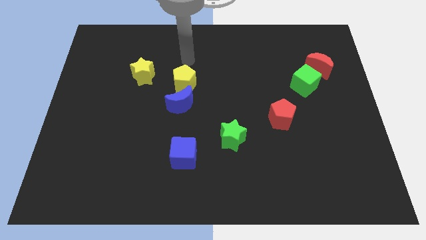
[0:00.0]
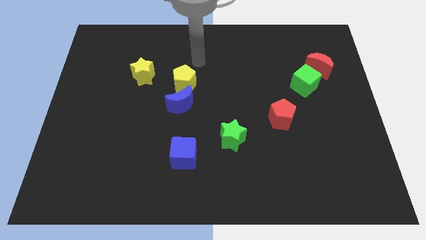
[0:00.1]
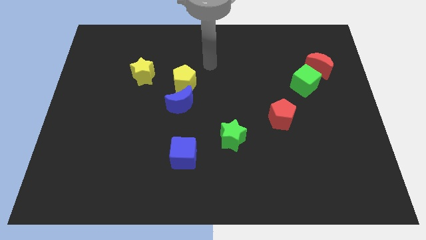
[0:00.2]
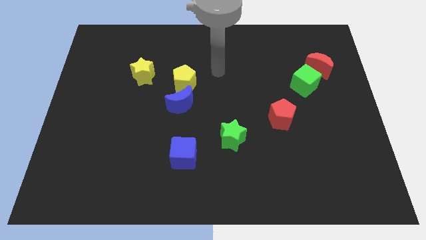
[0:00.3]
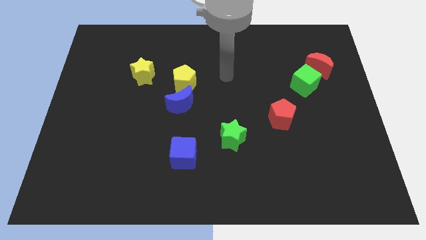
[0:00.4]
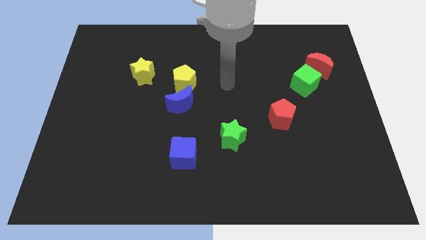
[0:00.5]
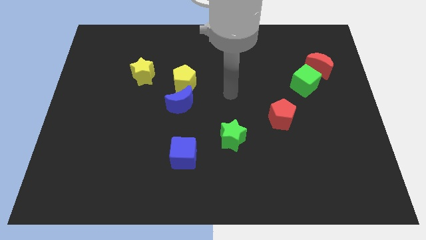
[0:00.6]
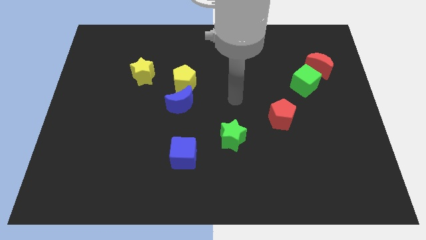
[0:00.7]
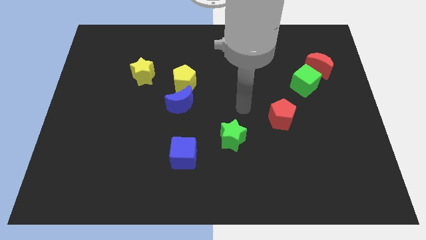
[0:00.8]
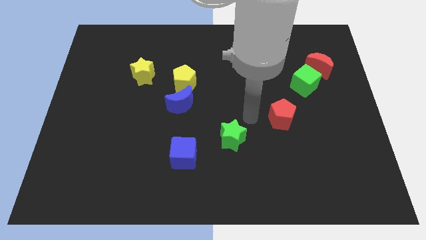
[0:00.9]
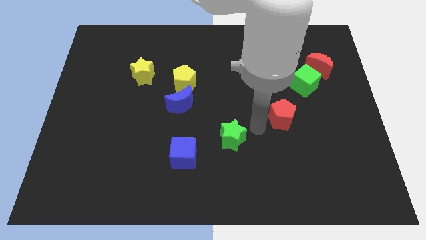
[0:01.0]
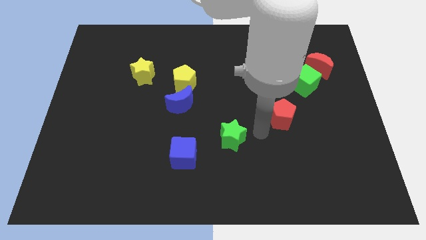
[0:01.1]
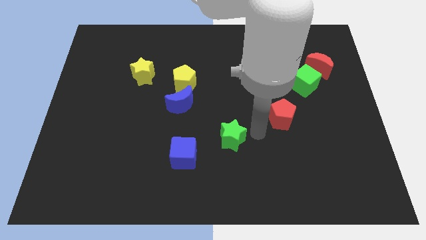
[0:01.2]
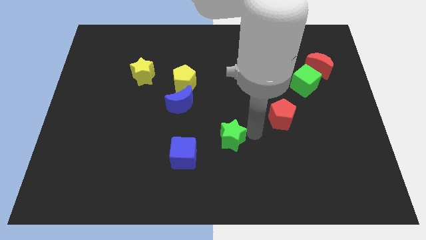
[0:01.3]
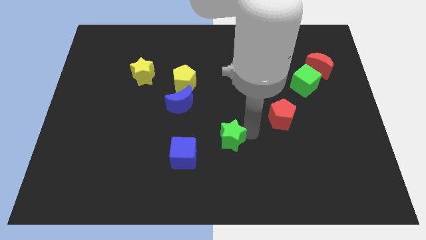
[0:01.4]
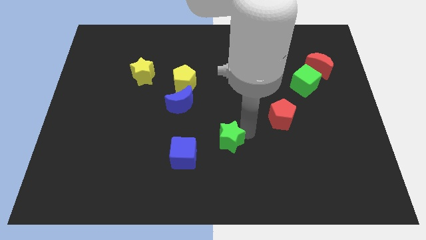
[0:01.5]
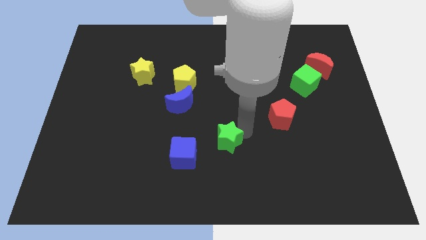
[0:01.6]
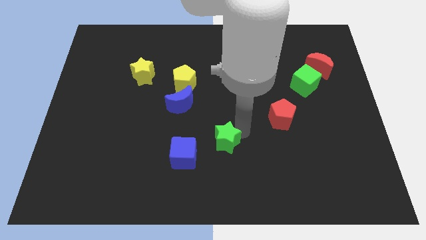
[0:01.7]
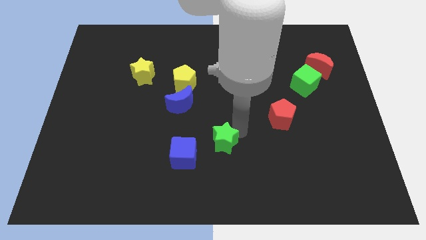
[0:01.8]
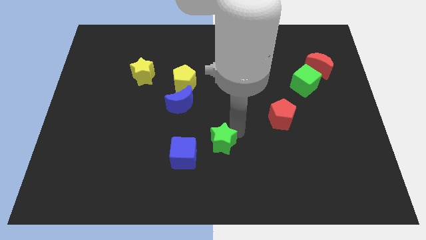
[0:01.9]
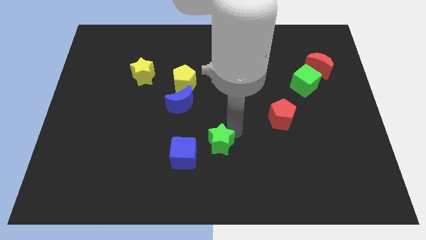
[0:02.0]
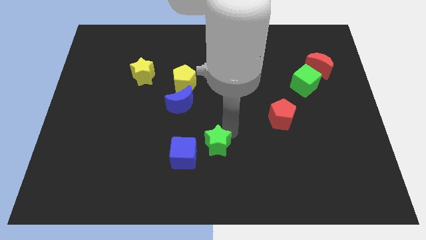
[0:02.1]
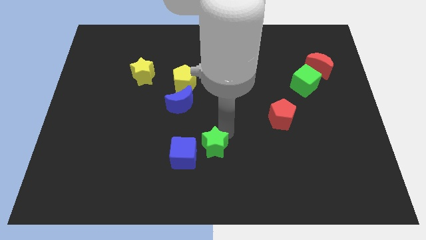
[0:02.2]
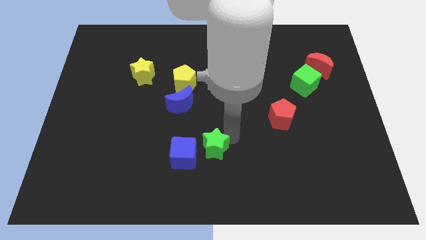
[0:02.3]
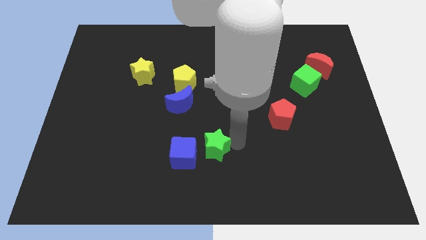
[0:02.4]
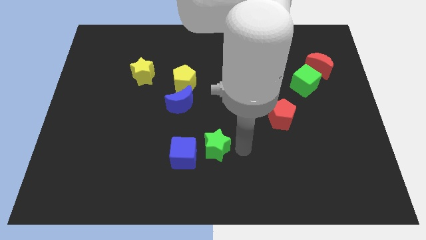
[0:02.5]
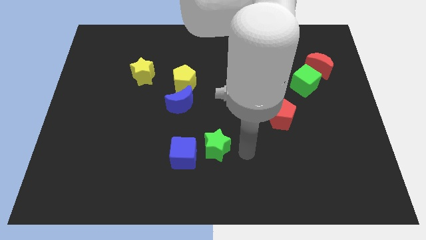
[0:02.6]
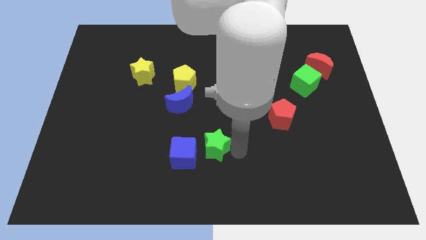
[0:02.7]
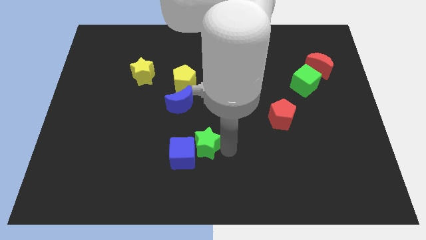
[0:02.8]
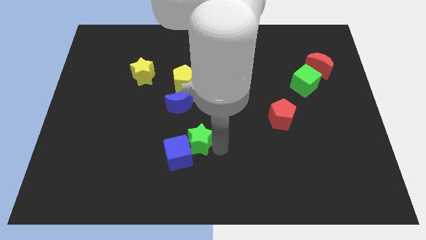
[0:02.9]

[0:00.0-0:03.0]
move the green star to the left slightly

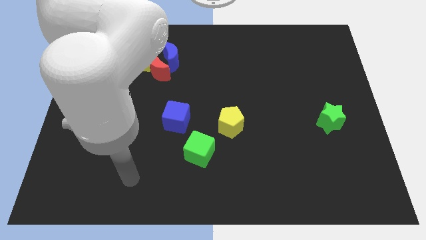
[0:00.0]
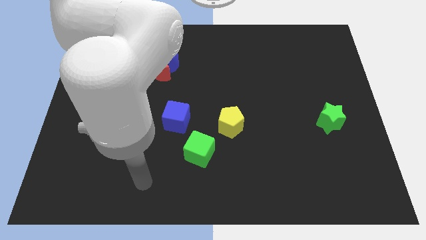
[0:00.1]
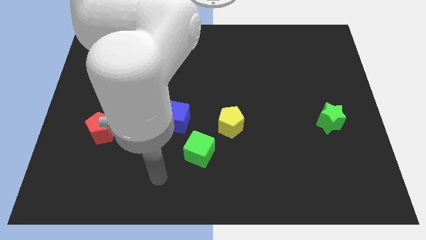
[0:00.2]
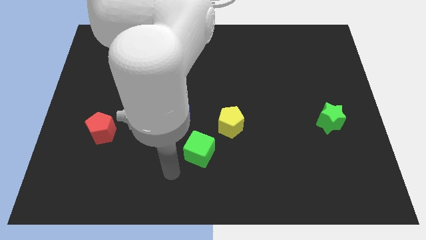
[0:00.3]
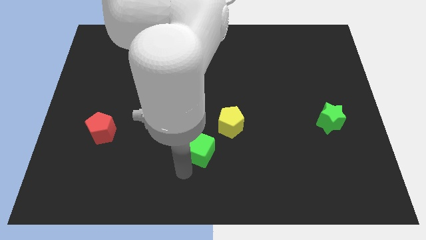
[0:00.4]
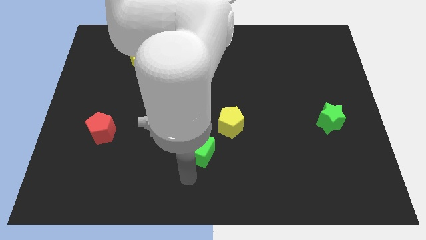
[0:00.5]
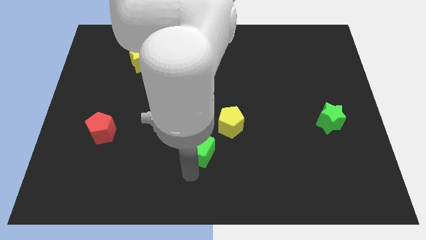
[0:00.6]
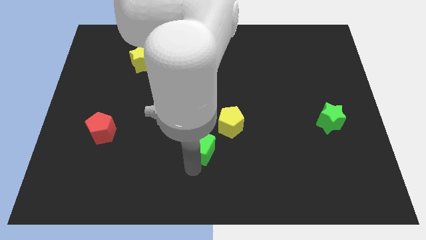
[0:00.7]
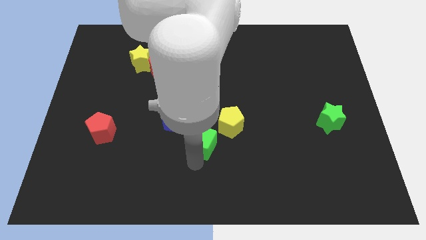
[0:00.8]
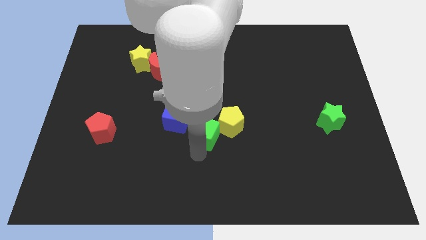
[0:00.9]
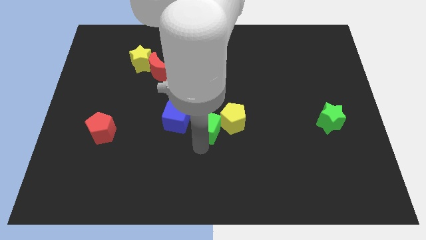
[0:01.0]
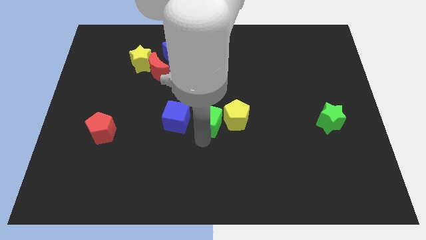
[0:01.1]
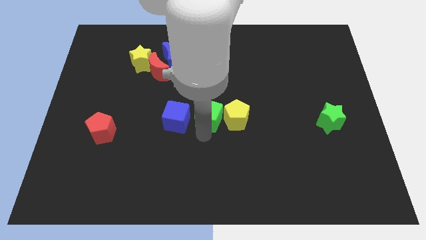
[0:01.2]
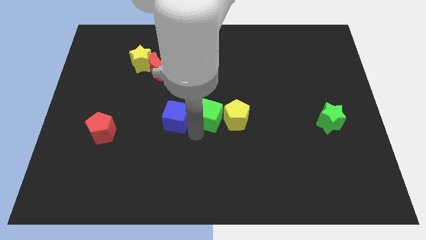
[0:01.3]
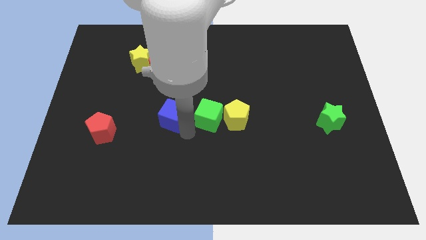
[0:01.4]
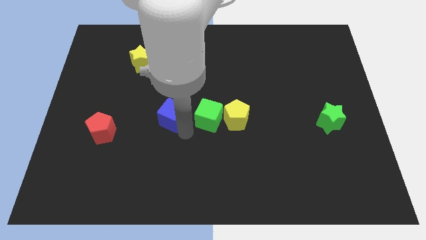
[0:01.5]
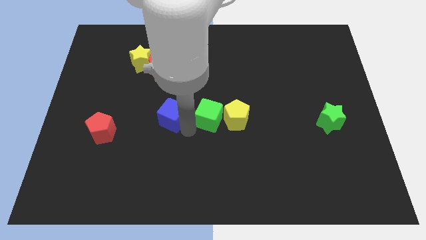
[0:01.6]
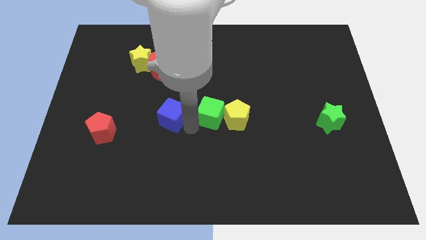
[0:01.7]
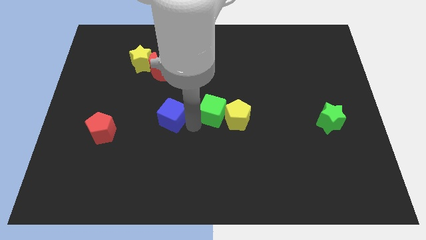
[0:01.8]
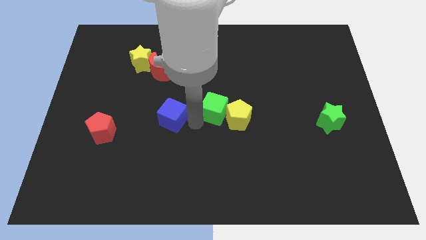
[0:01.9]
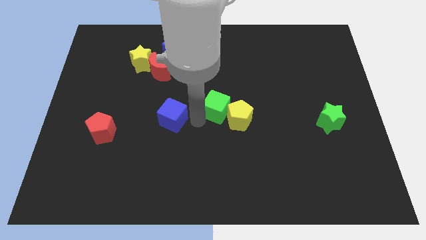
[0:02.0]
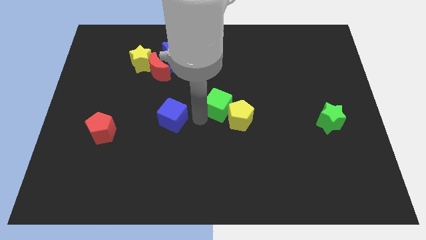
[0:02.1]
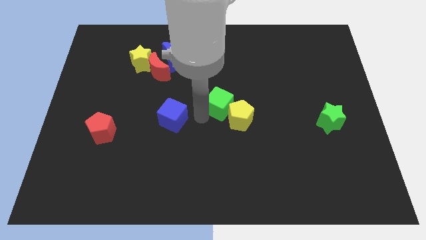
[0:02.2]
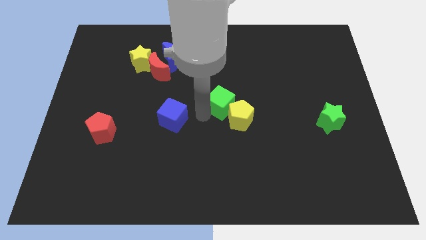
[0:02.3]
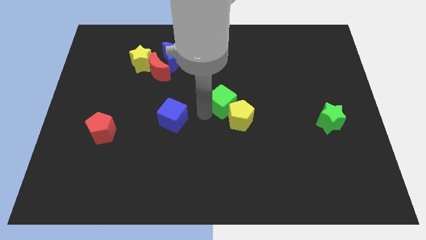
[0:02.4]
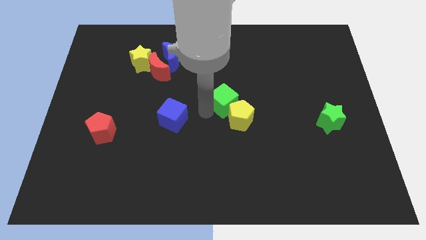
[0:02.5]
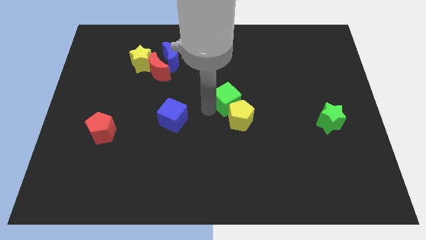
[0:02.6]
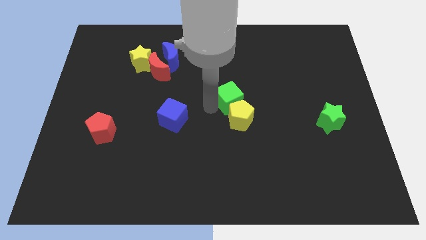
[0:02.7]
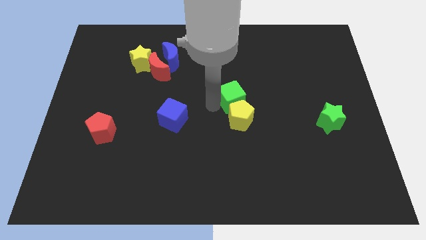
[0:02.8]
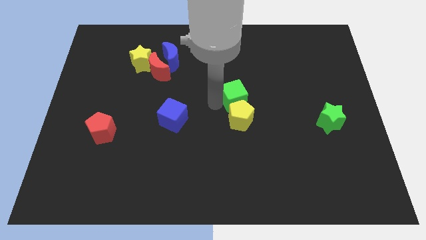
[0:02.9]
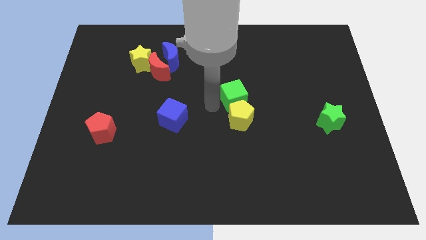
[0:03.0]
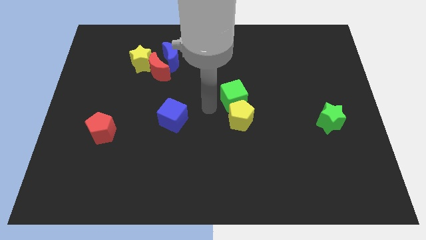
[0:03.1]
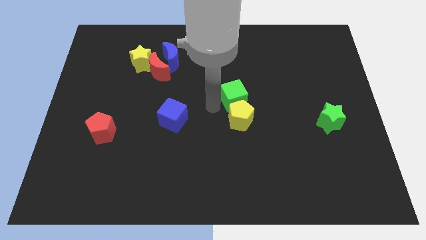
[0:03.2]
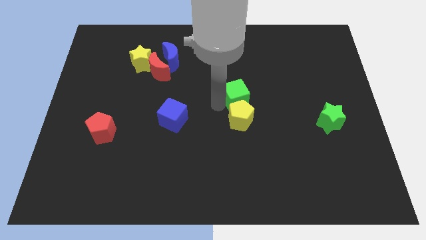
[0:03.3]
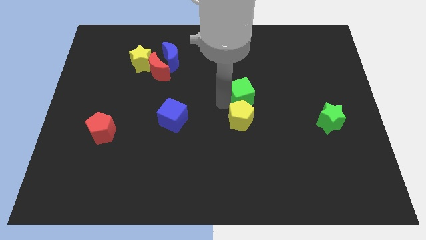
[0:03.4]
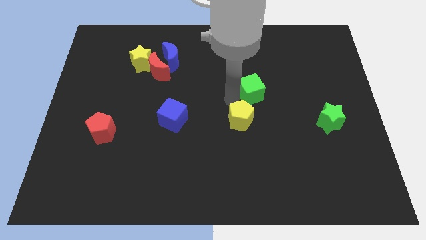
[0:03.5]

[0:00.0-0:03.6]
move the green cube upwards and then to the right

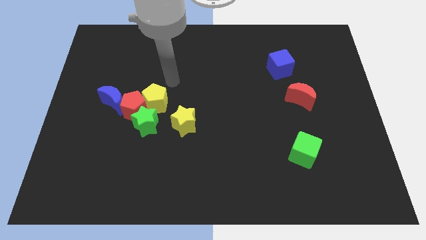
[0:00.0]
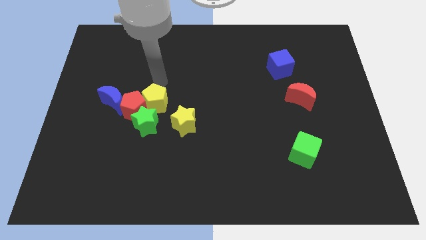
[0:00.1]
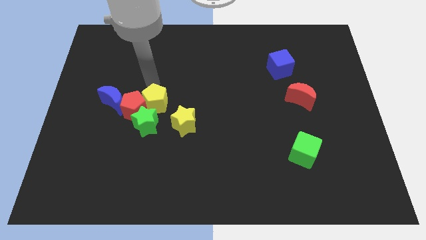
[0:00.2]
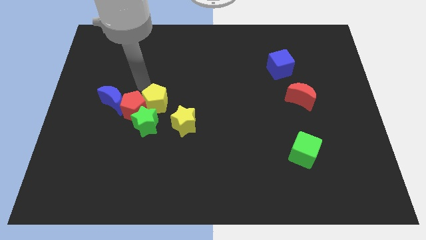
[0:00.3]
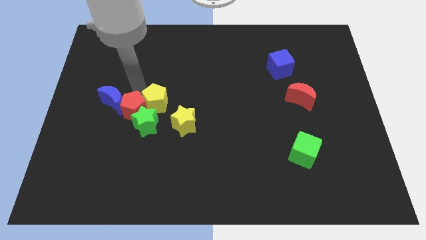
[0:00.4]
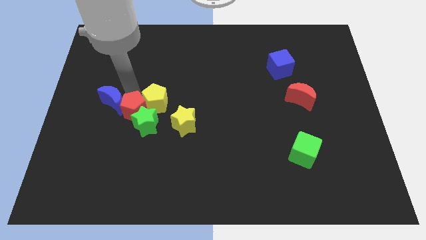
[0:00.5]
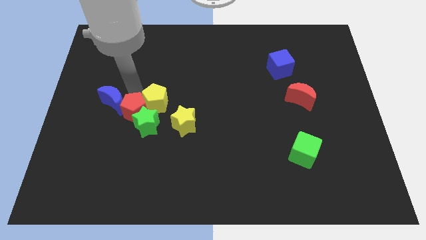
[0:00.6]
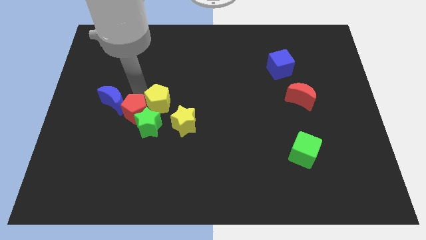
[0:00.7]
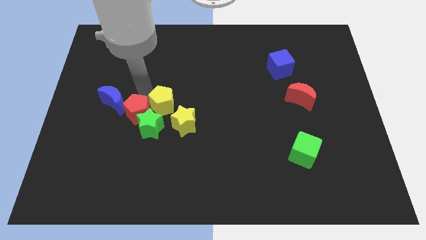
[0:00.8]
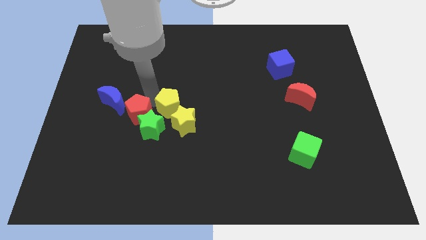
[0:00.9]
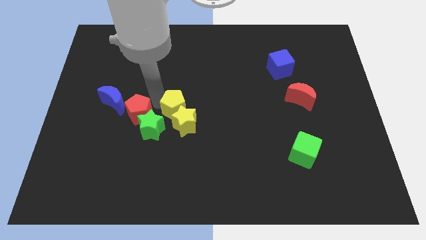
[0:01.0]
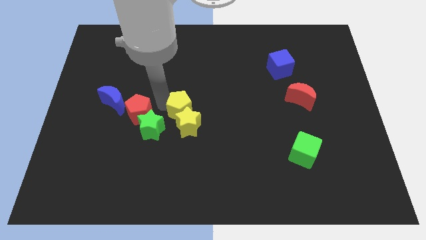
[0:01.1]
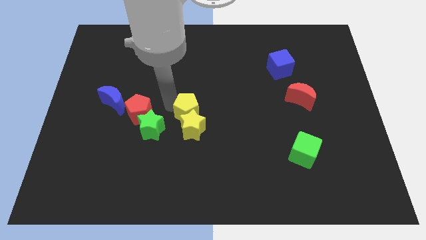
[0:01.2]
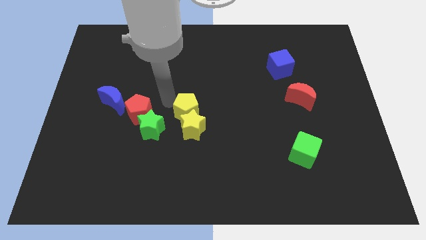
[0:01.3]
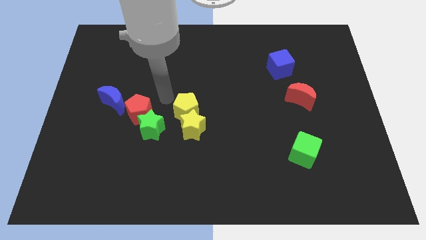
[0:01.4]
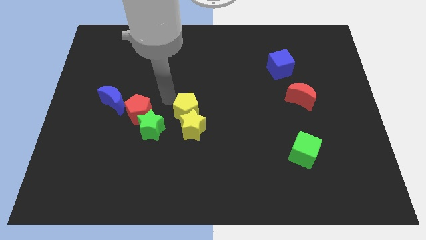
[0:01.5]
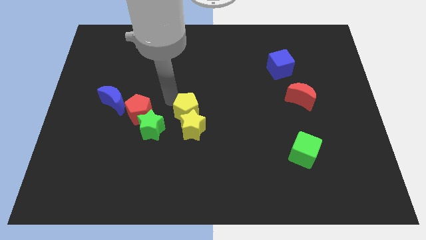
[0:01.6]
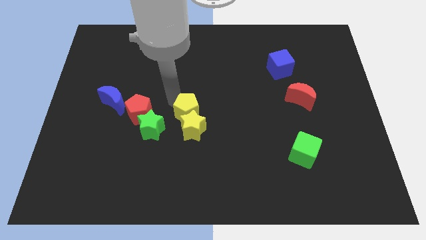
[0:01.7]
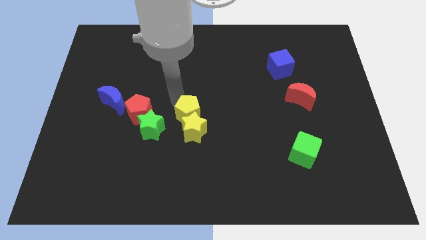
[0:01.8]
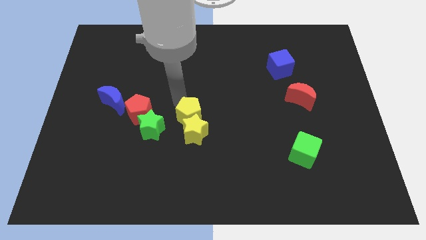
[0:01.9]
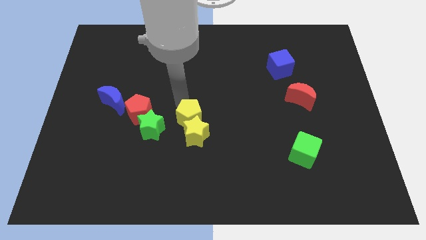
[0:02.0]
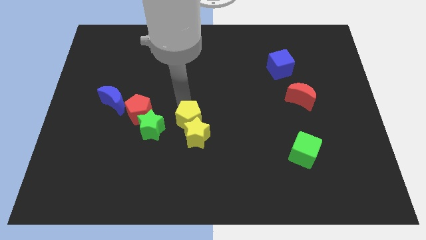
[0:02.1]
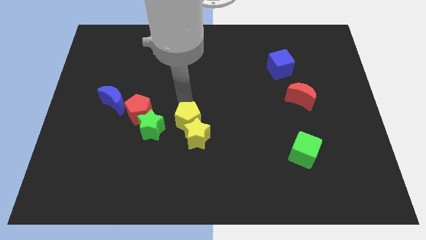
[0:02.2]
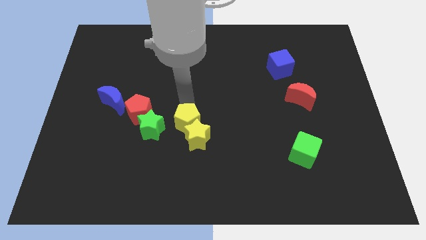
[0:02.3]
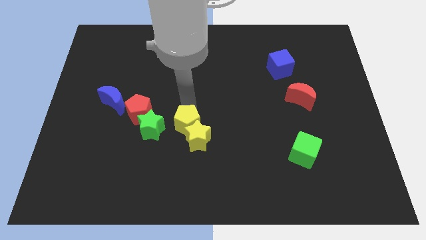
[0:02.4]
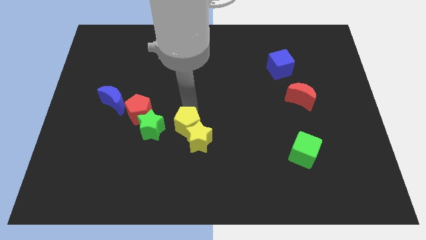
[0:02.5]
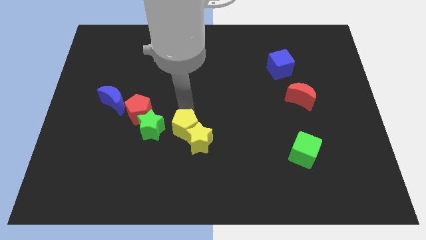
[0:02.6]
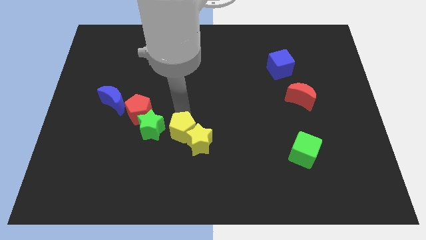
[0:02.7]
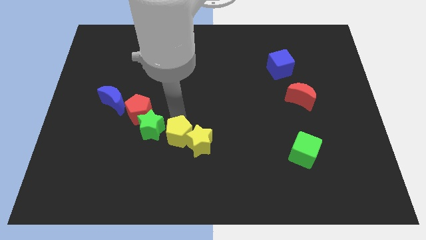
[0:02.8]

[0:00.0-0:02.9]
slide the yellow pentagon downwards slightly
